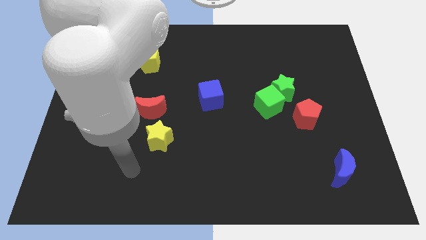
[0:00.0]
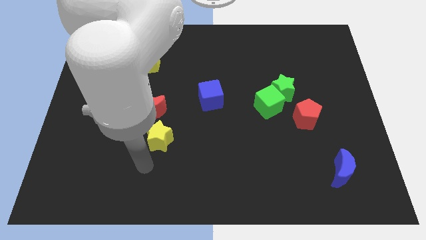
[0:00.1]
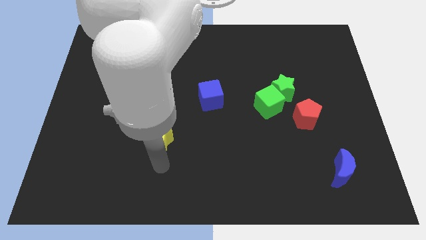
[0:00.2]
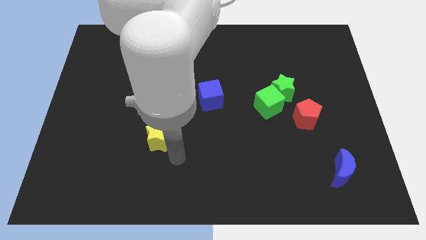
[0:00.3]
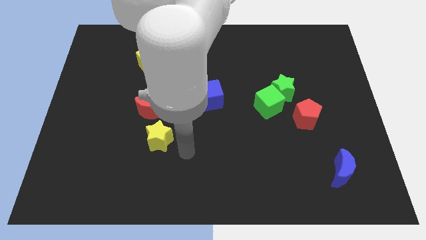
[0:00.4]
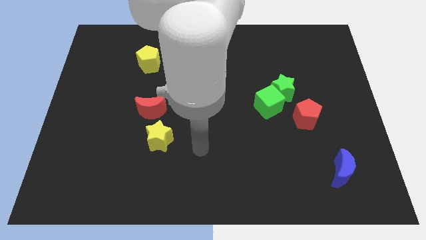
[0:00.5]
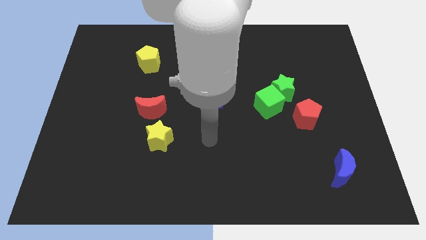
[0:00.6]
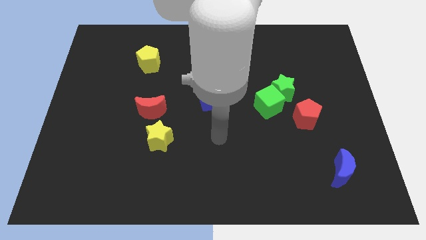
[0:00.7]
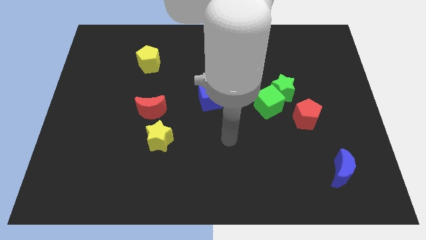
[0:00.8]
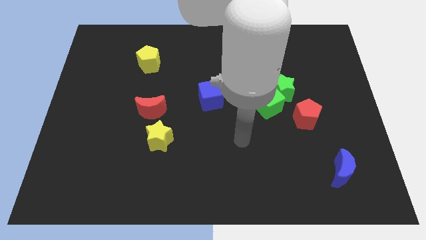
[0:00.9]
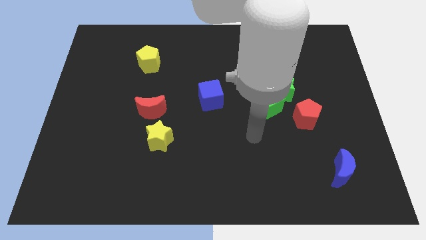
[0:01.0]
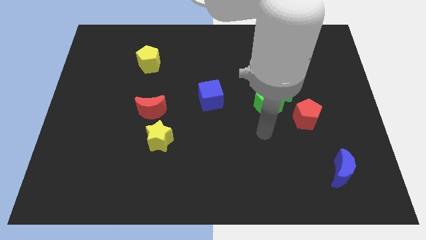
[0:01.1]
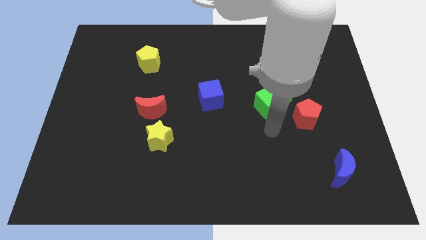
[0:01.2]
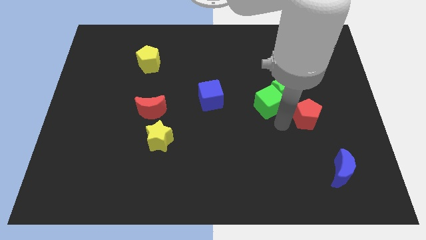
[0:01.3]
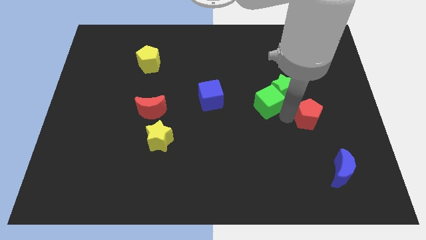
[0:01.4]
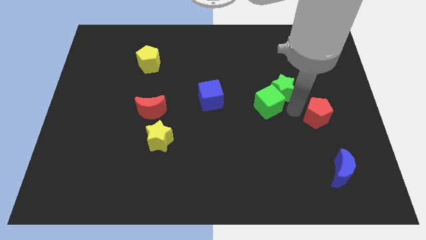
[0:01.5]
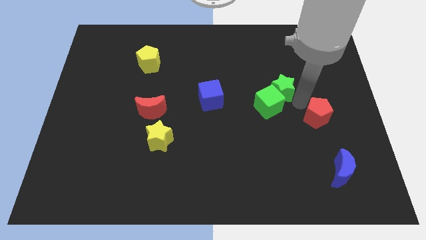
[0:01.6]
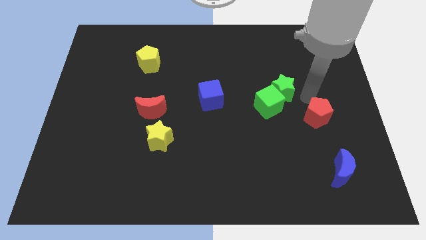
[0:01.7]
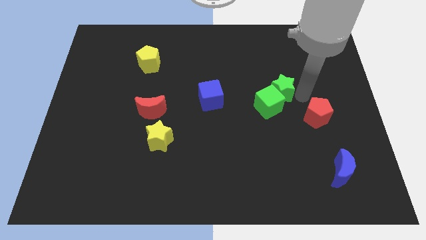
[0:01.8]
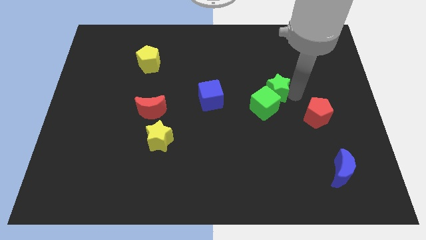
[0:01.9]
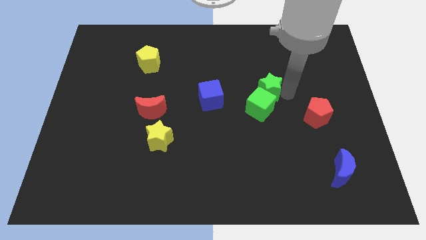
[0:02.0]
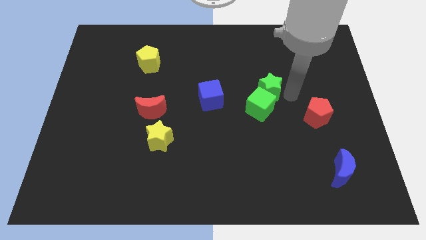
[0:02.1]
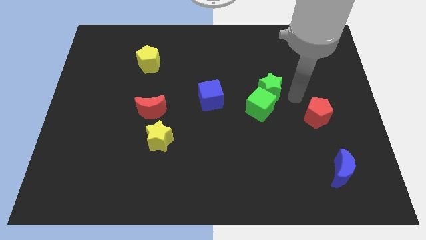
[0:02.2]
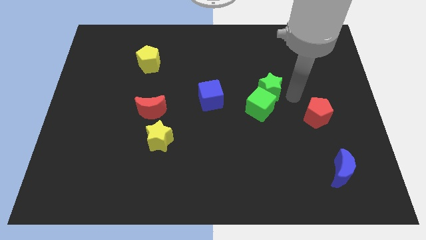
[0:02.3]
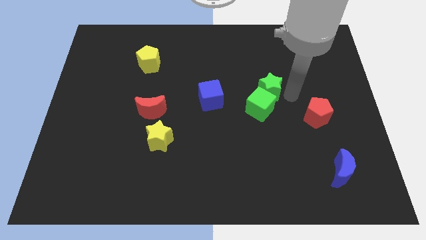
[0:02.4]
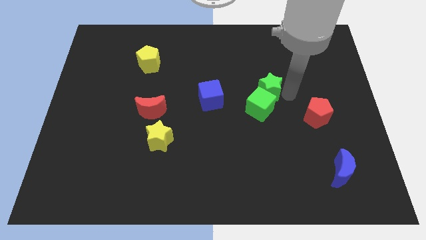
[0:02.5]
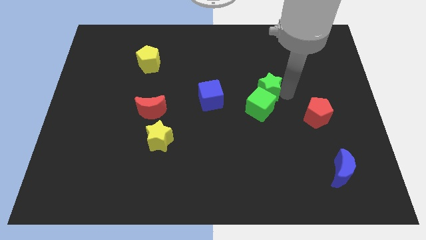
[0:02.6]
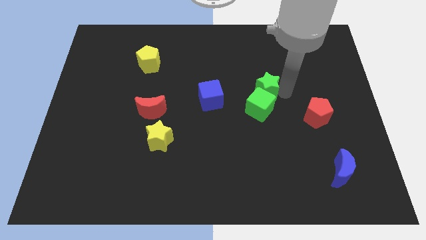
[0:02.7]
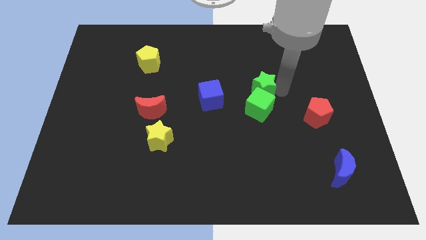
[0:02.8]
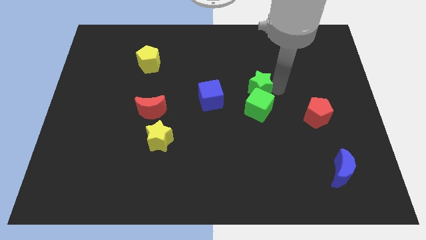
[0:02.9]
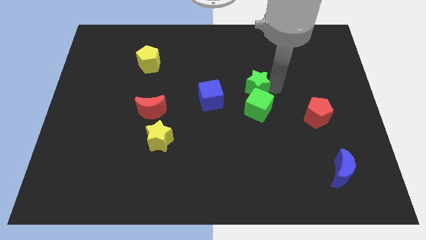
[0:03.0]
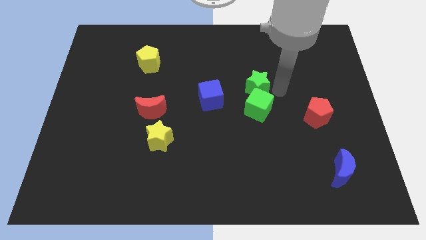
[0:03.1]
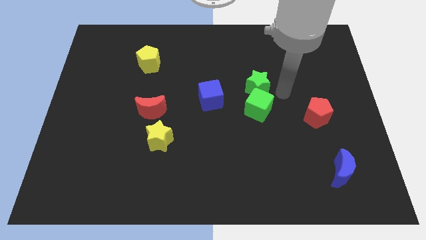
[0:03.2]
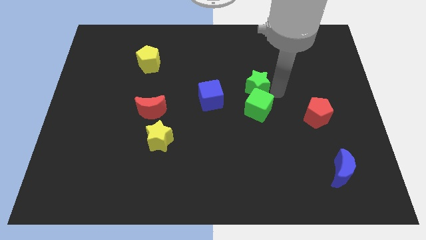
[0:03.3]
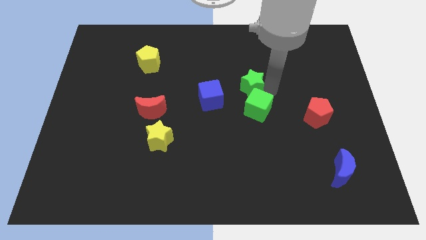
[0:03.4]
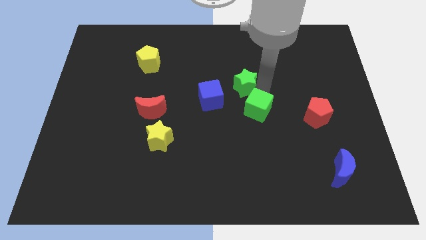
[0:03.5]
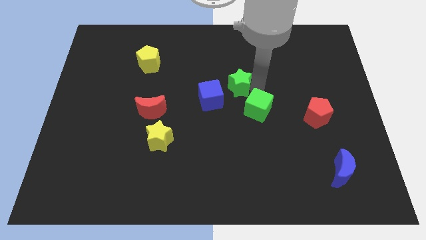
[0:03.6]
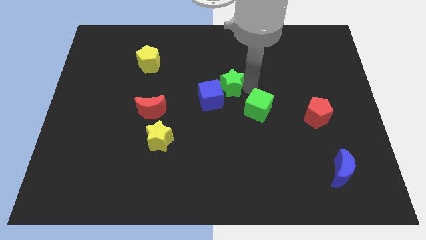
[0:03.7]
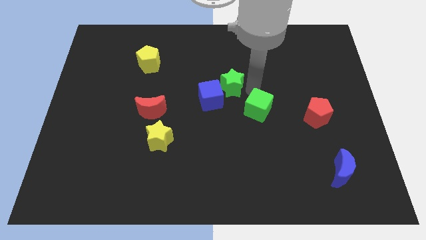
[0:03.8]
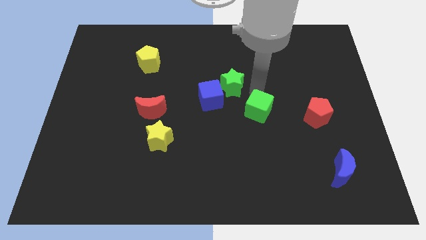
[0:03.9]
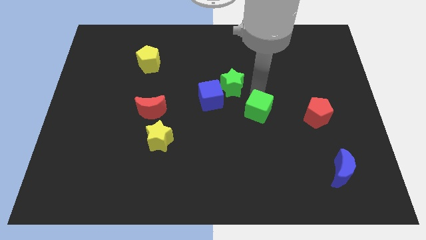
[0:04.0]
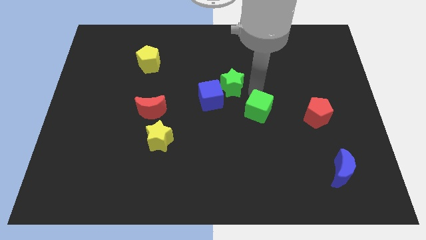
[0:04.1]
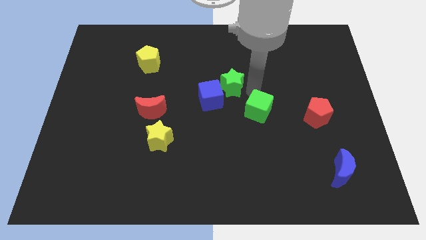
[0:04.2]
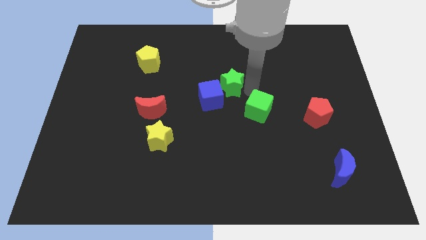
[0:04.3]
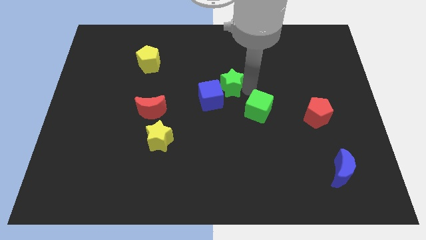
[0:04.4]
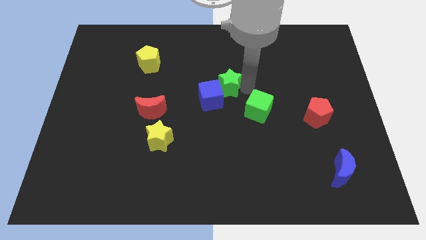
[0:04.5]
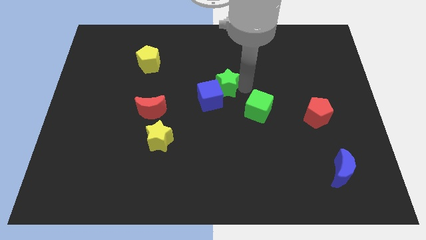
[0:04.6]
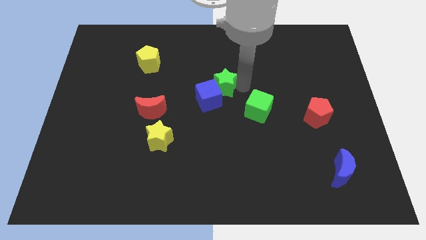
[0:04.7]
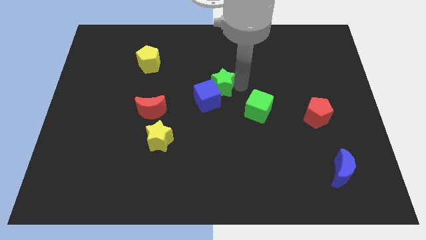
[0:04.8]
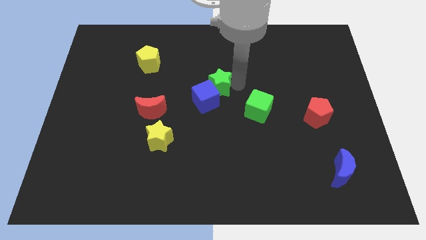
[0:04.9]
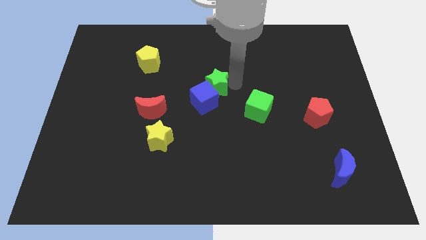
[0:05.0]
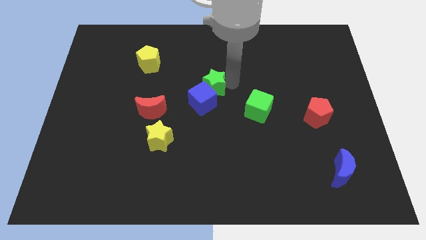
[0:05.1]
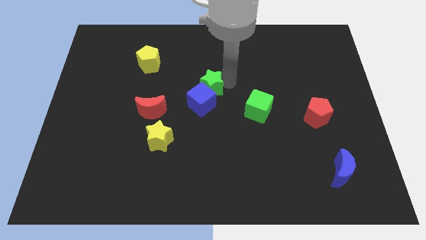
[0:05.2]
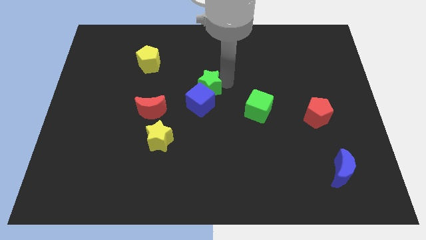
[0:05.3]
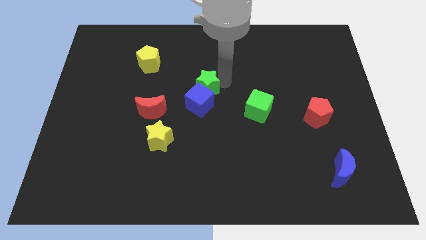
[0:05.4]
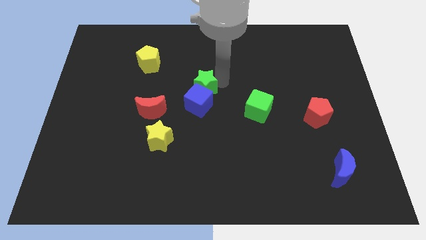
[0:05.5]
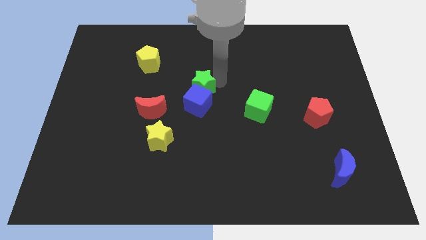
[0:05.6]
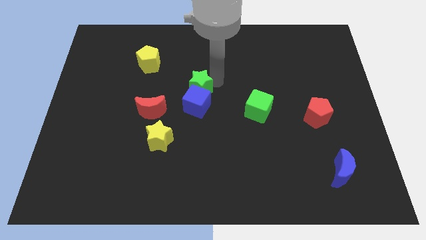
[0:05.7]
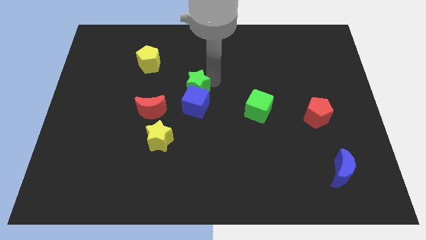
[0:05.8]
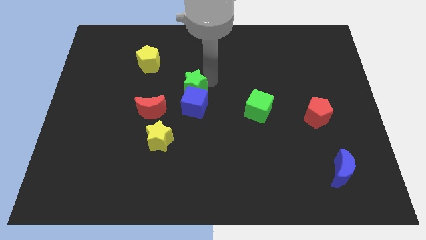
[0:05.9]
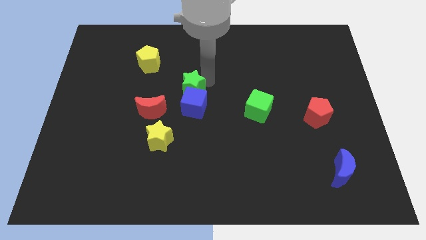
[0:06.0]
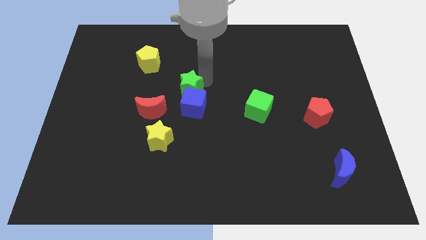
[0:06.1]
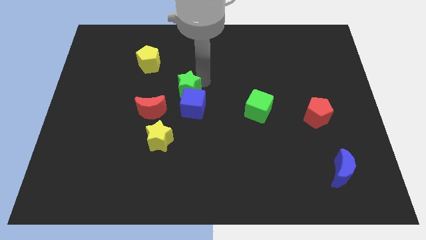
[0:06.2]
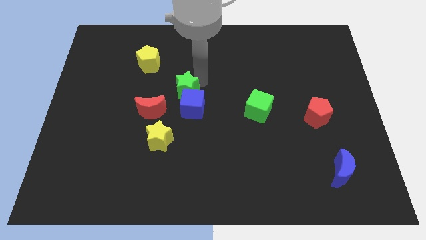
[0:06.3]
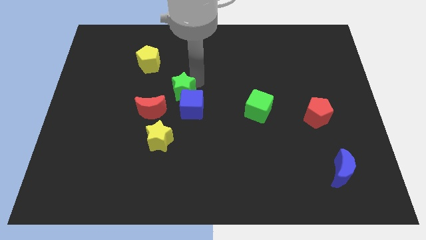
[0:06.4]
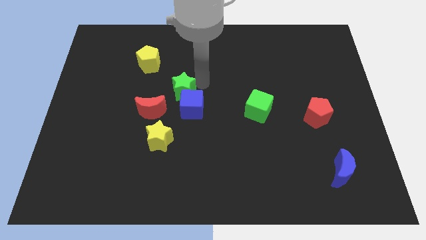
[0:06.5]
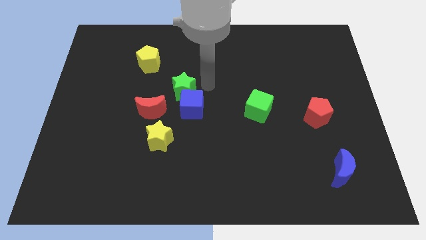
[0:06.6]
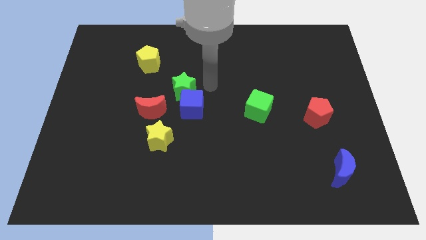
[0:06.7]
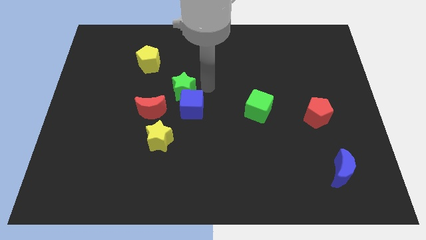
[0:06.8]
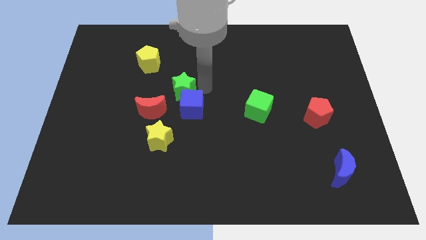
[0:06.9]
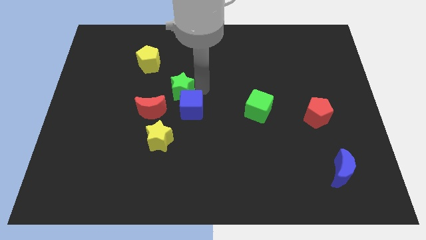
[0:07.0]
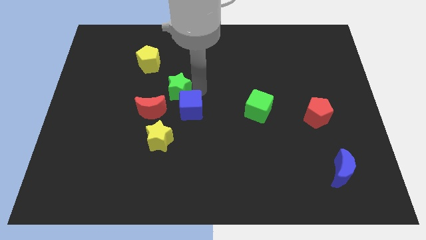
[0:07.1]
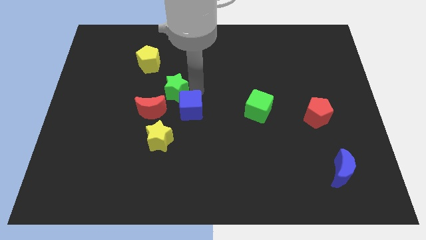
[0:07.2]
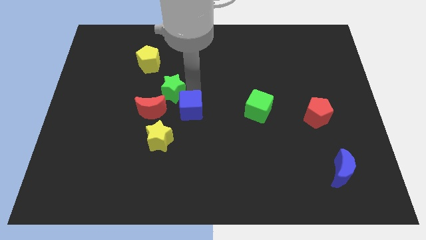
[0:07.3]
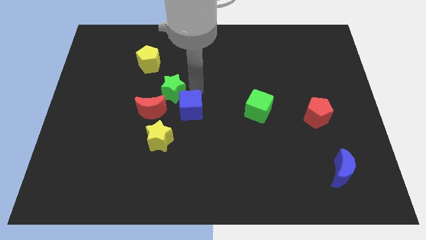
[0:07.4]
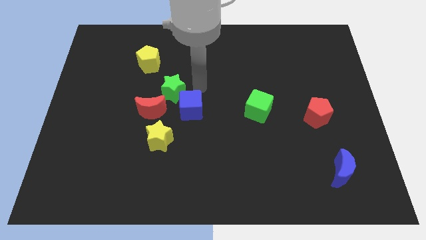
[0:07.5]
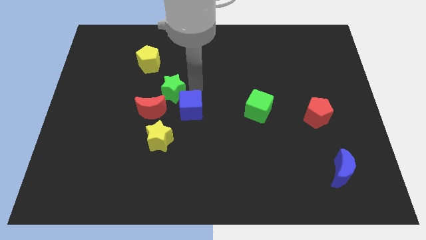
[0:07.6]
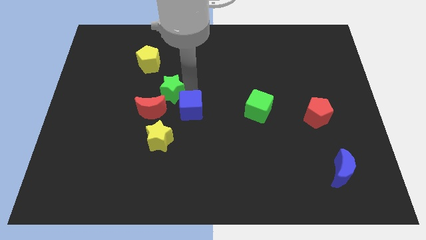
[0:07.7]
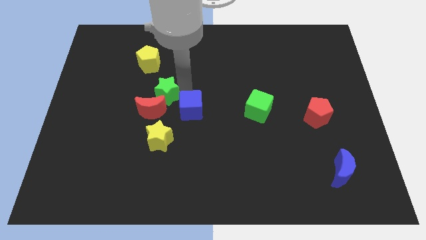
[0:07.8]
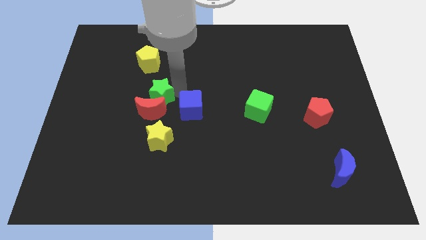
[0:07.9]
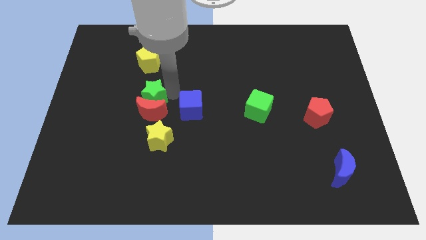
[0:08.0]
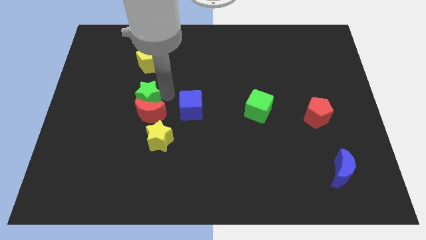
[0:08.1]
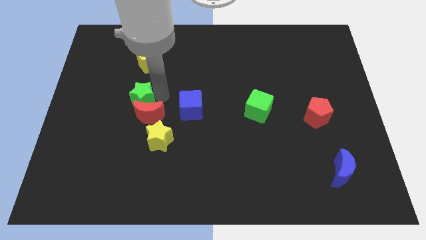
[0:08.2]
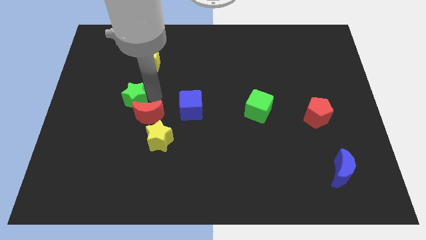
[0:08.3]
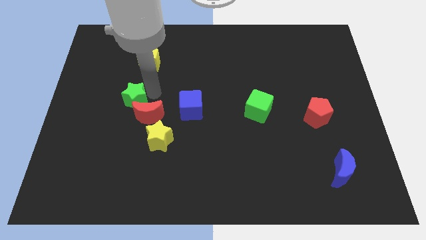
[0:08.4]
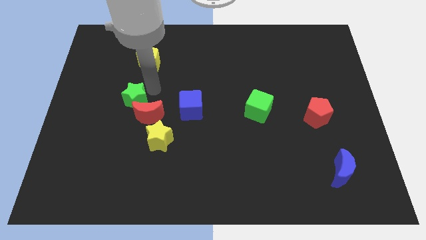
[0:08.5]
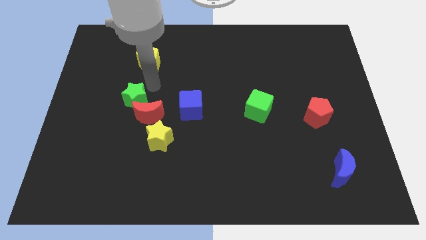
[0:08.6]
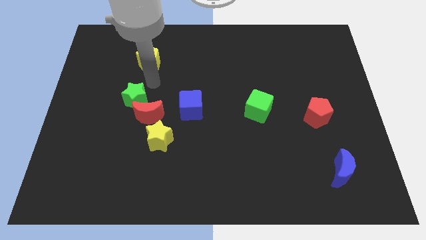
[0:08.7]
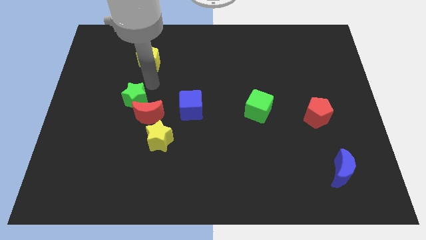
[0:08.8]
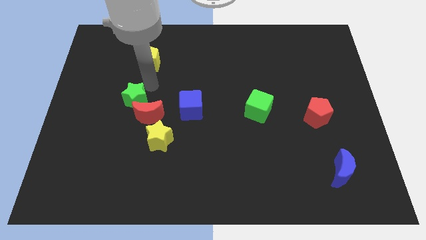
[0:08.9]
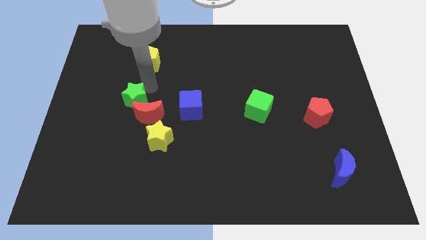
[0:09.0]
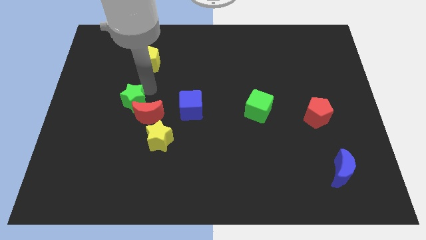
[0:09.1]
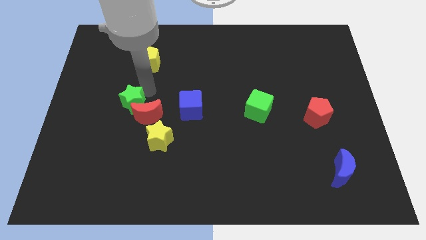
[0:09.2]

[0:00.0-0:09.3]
put the green star diagonally up and to the left of the yellow star
